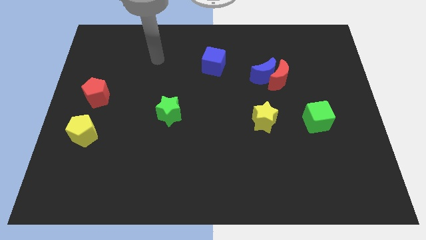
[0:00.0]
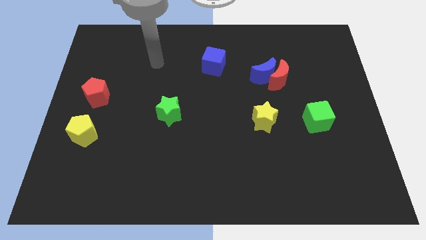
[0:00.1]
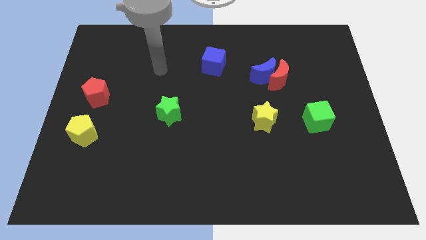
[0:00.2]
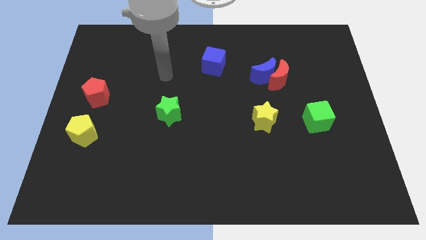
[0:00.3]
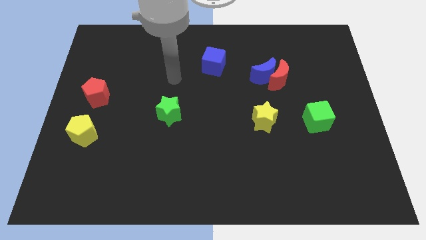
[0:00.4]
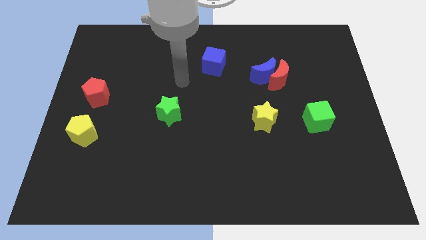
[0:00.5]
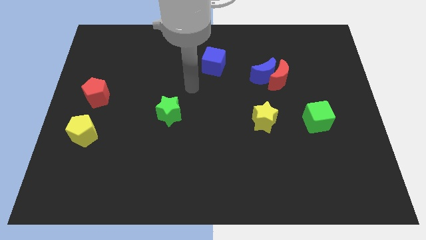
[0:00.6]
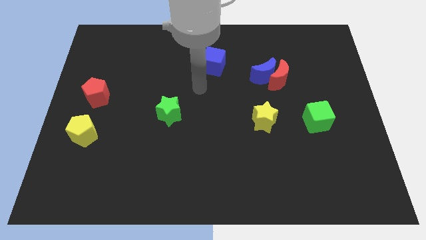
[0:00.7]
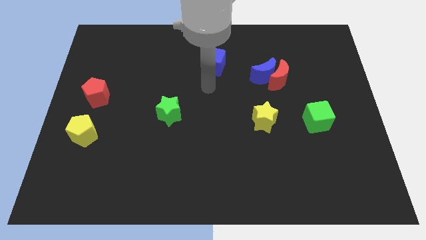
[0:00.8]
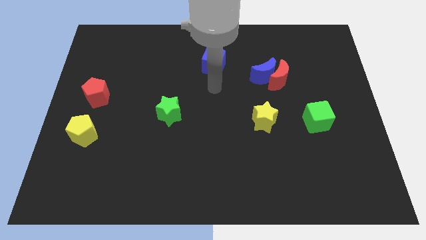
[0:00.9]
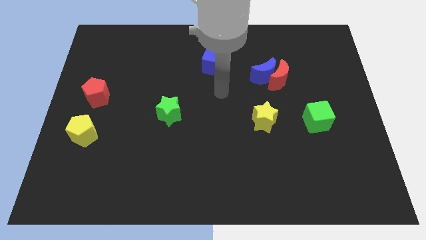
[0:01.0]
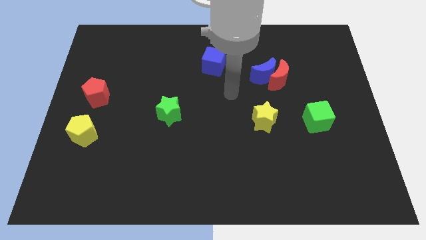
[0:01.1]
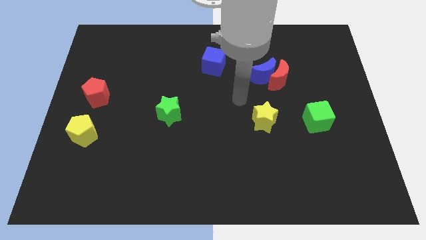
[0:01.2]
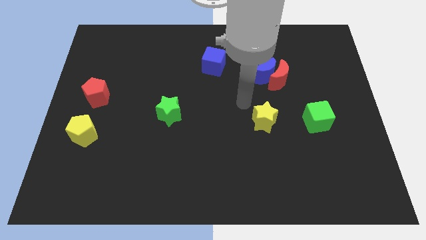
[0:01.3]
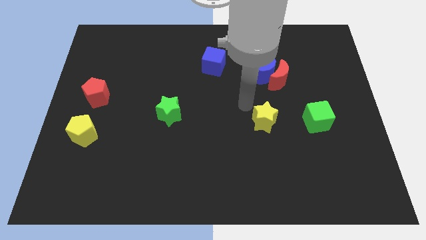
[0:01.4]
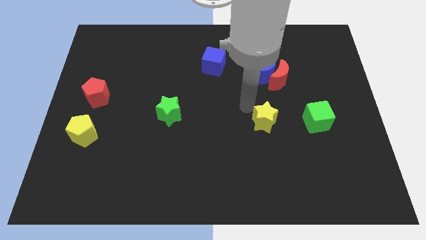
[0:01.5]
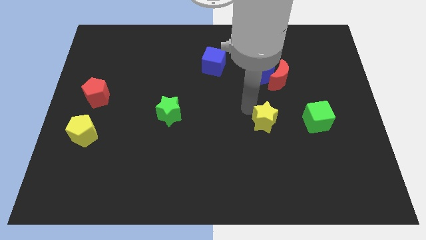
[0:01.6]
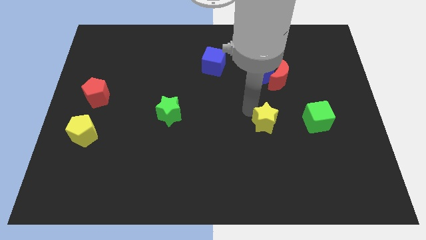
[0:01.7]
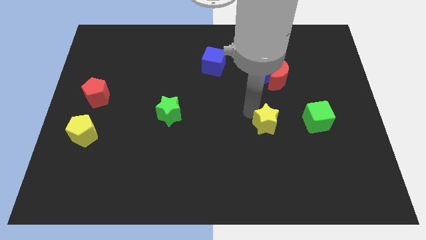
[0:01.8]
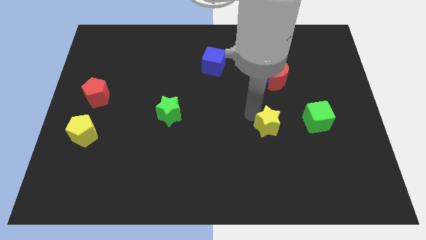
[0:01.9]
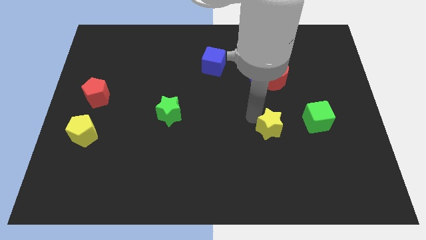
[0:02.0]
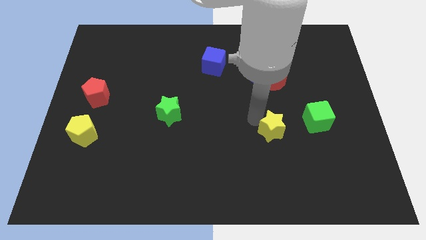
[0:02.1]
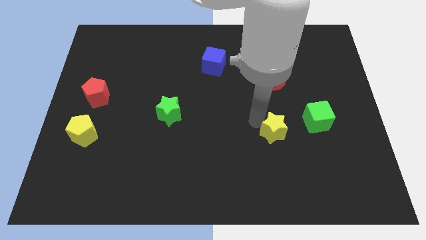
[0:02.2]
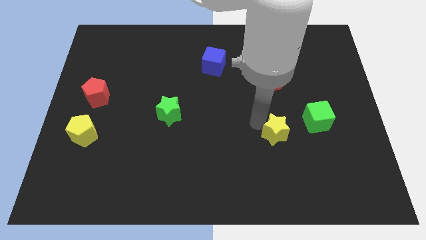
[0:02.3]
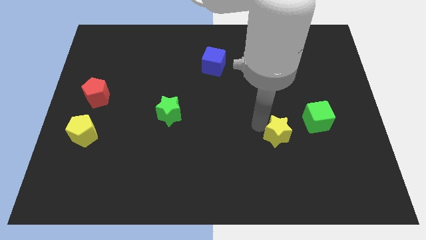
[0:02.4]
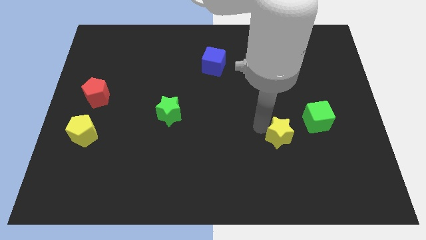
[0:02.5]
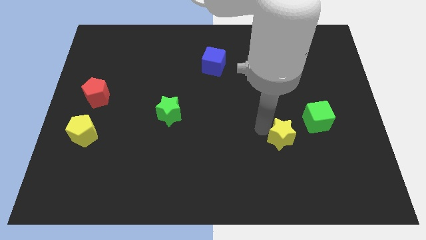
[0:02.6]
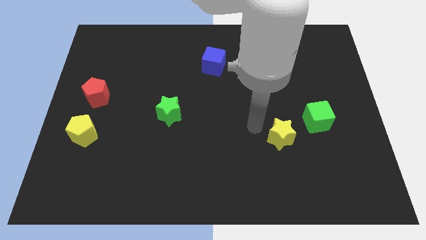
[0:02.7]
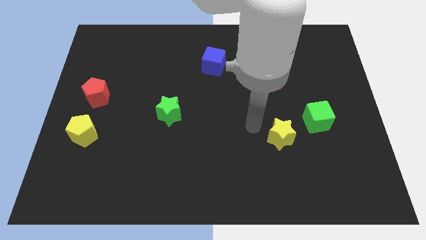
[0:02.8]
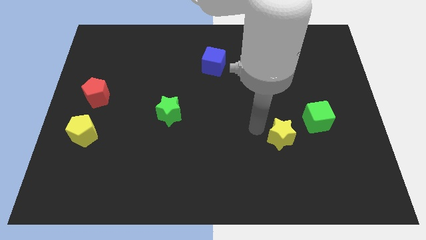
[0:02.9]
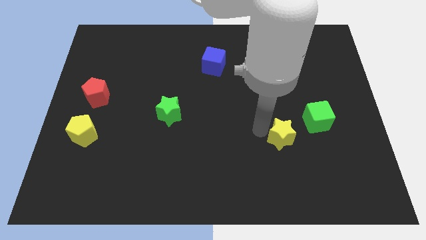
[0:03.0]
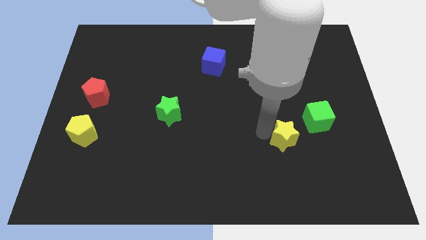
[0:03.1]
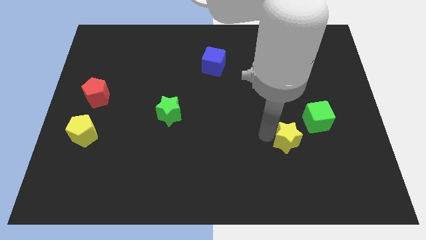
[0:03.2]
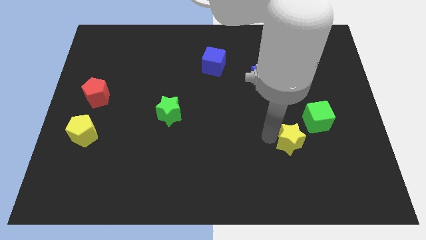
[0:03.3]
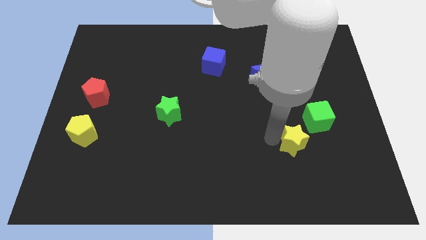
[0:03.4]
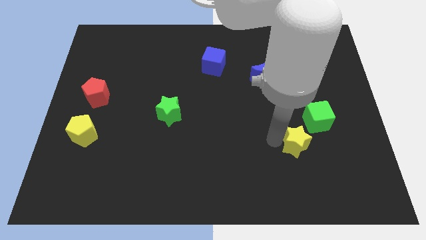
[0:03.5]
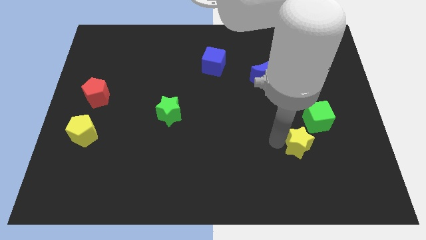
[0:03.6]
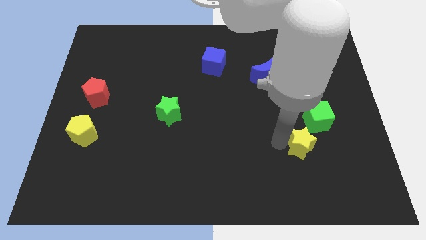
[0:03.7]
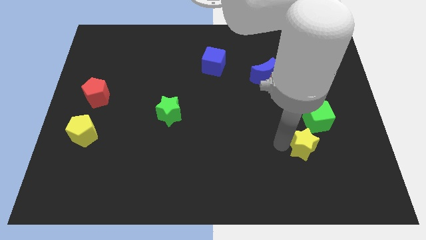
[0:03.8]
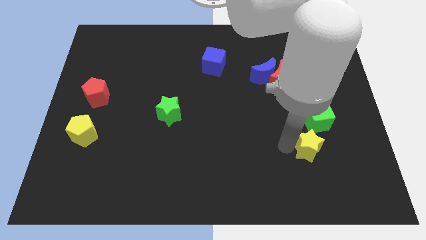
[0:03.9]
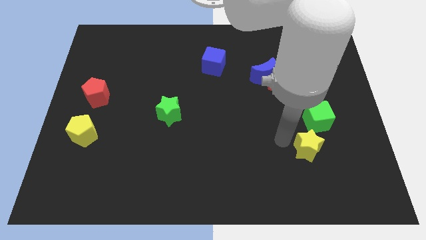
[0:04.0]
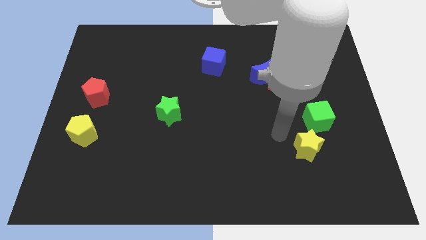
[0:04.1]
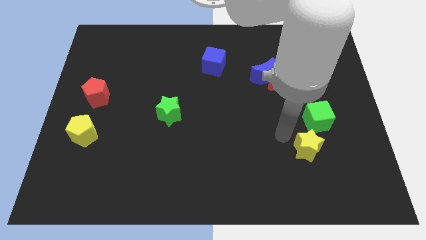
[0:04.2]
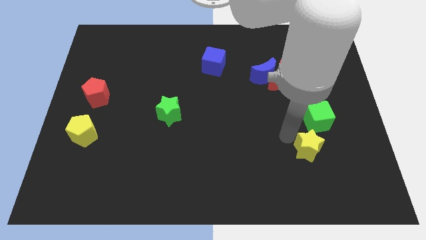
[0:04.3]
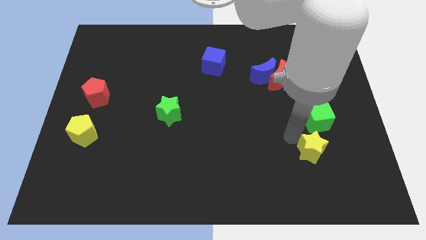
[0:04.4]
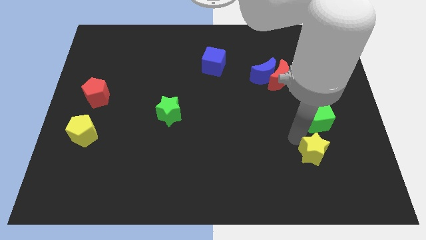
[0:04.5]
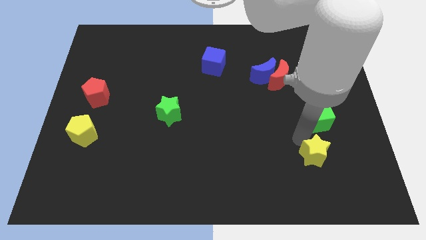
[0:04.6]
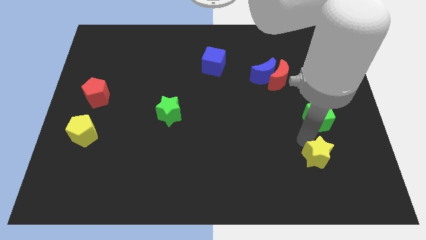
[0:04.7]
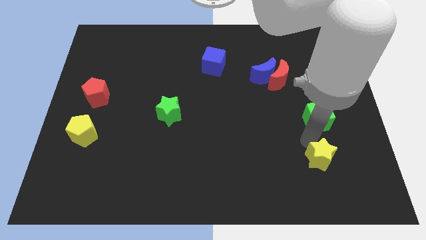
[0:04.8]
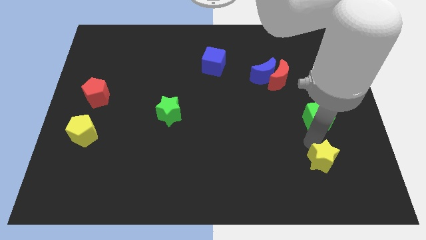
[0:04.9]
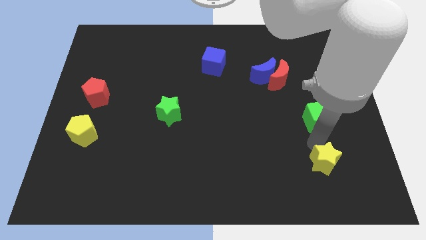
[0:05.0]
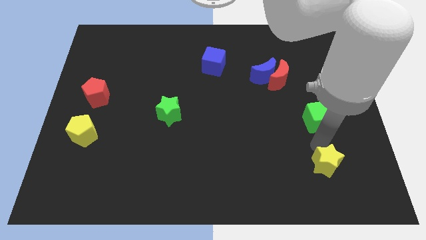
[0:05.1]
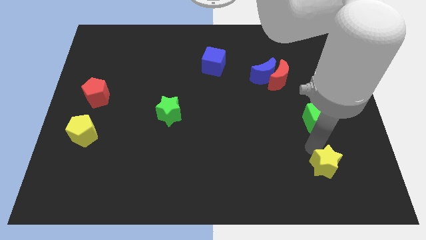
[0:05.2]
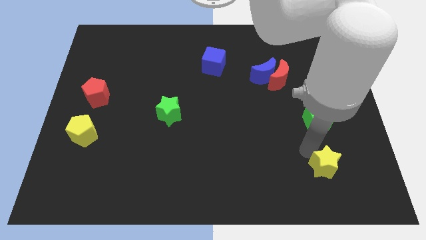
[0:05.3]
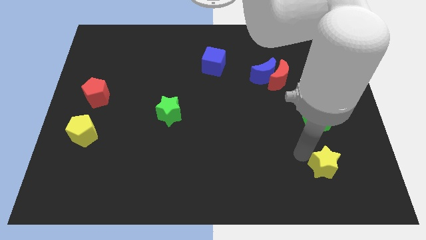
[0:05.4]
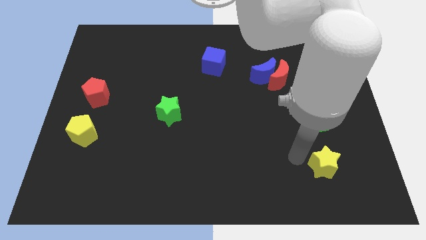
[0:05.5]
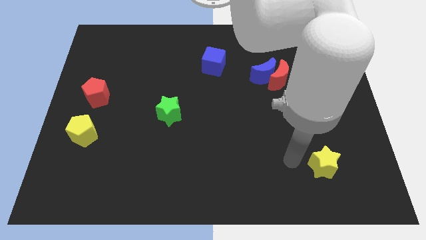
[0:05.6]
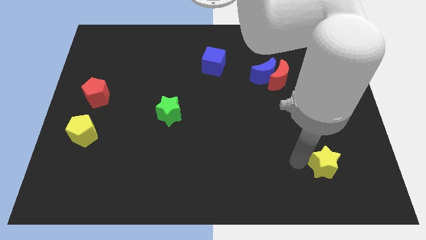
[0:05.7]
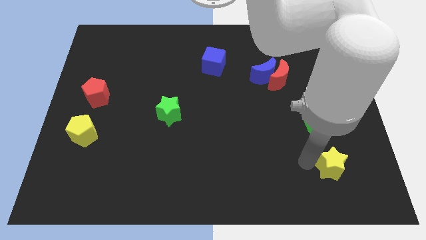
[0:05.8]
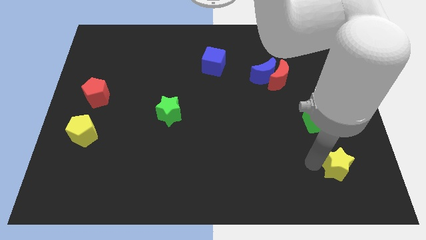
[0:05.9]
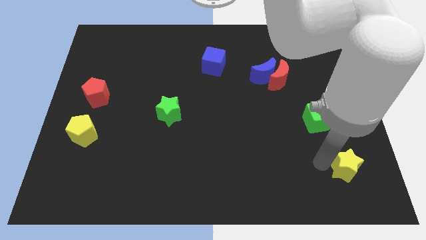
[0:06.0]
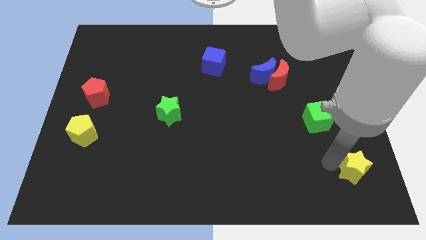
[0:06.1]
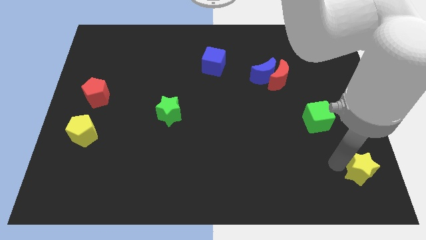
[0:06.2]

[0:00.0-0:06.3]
move the yellow star to the bottom right corner
